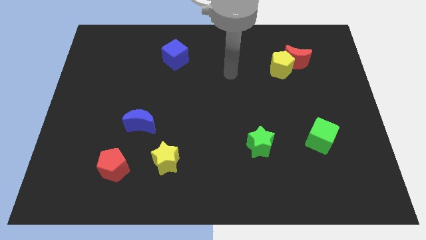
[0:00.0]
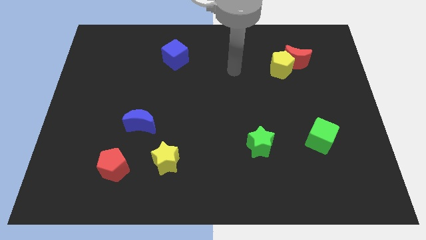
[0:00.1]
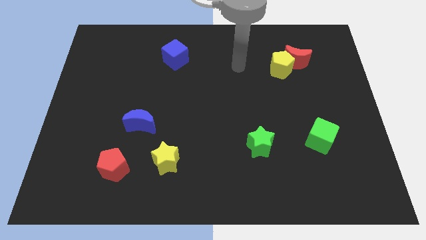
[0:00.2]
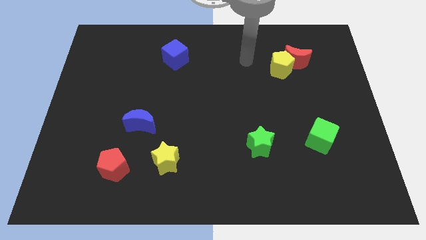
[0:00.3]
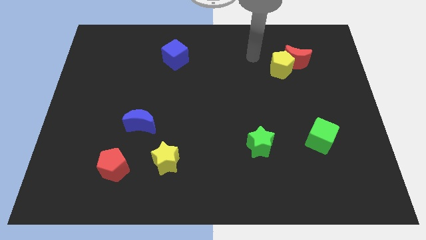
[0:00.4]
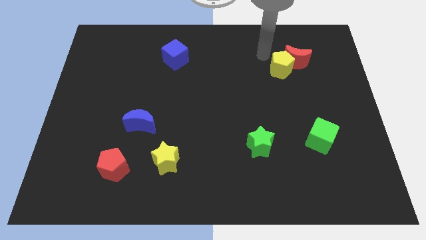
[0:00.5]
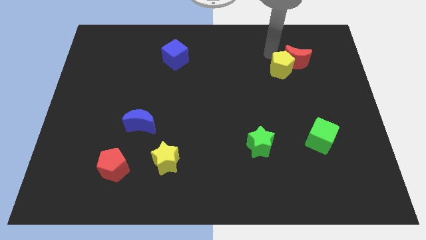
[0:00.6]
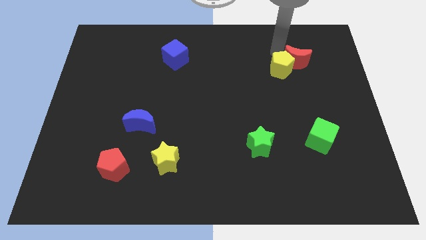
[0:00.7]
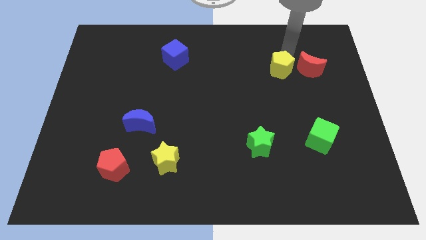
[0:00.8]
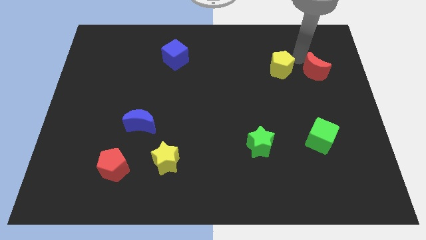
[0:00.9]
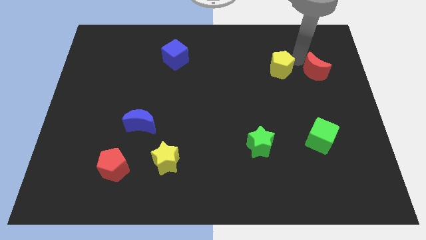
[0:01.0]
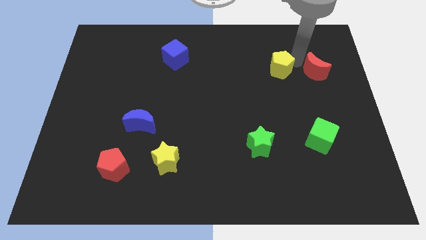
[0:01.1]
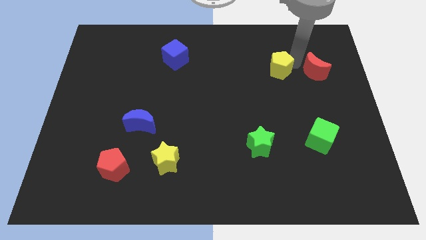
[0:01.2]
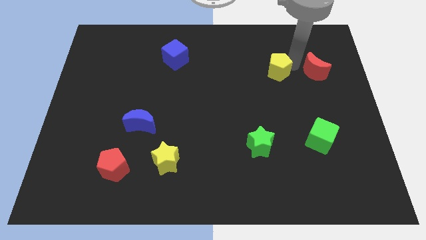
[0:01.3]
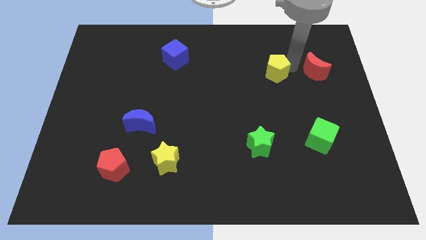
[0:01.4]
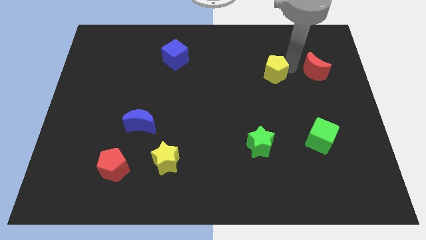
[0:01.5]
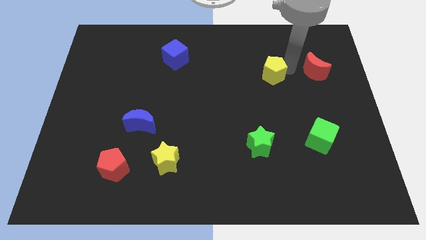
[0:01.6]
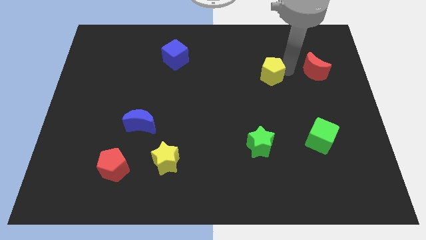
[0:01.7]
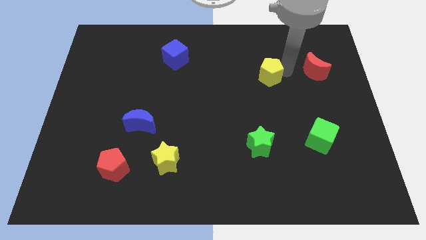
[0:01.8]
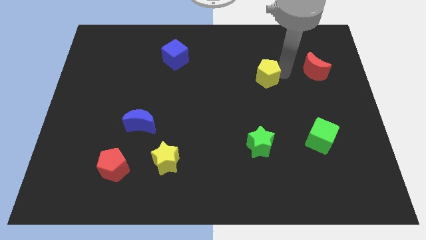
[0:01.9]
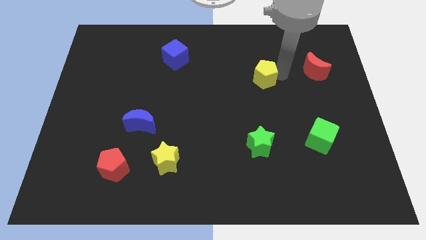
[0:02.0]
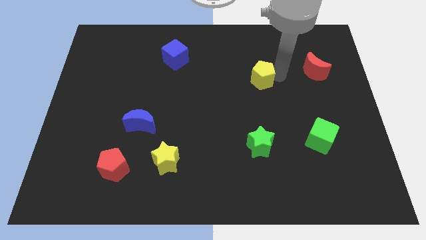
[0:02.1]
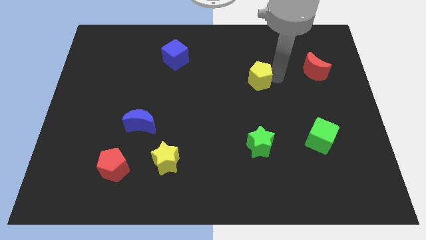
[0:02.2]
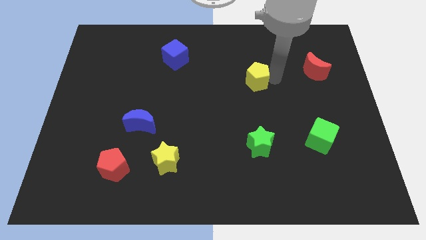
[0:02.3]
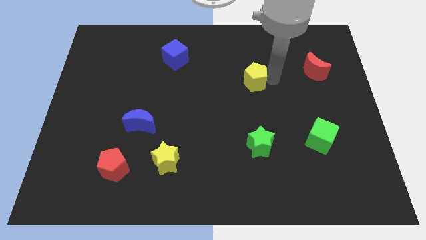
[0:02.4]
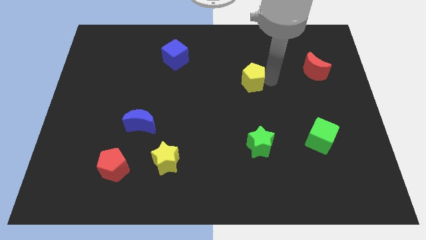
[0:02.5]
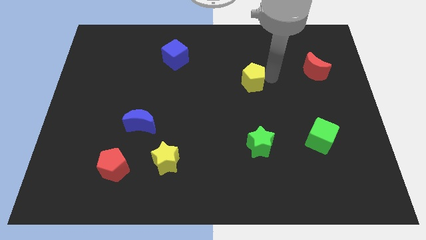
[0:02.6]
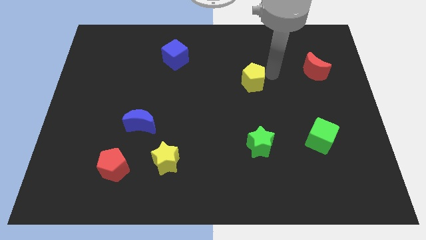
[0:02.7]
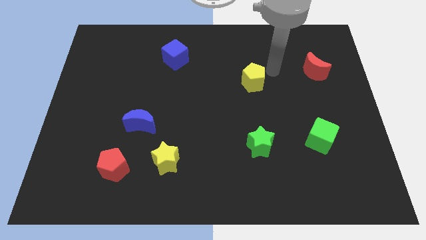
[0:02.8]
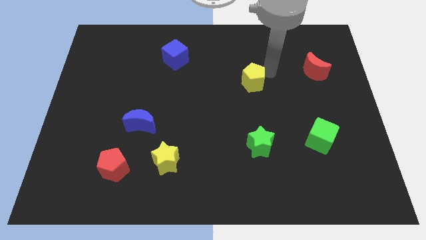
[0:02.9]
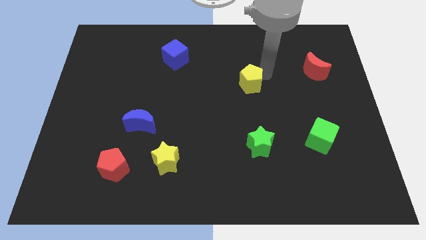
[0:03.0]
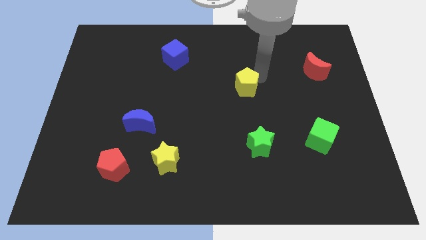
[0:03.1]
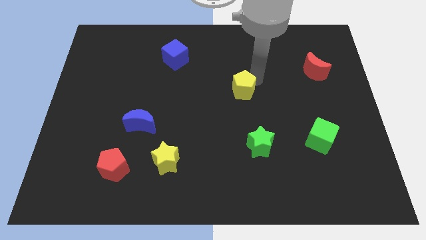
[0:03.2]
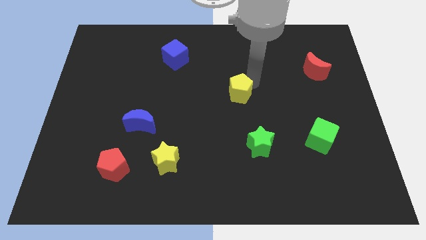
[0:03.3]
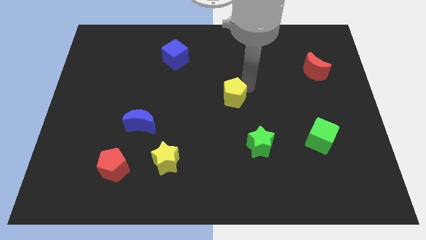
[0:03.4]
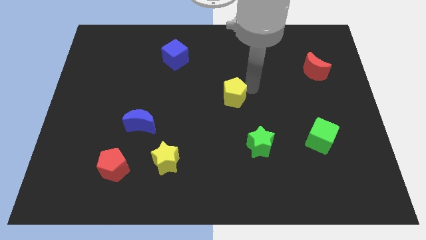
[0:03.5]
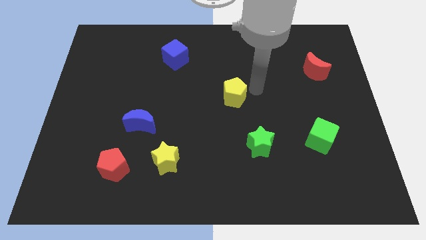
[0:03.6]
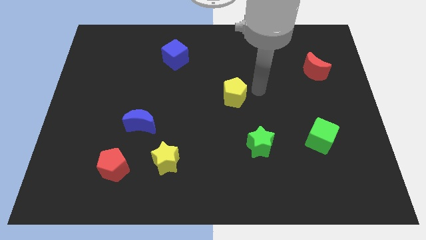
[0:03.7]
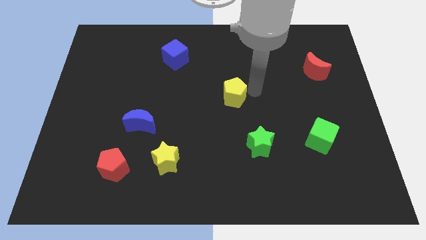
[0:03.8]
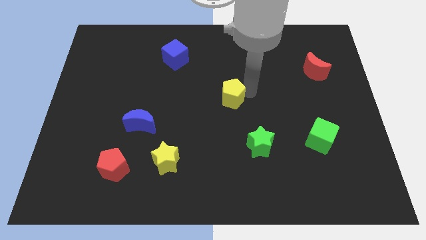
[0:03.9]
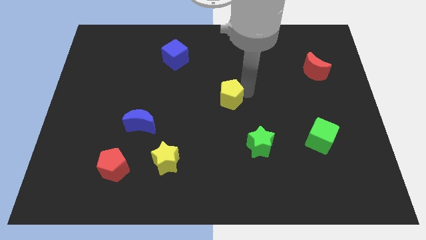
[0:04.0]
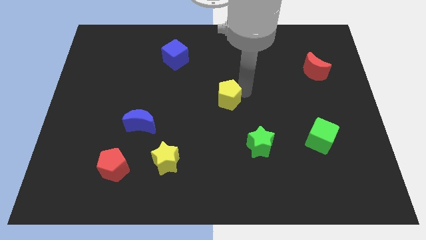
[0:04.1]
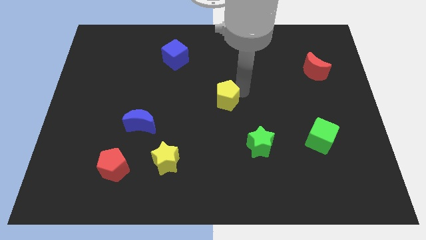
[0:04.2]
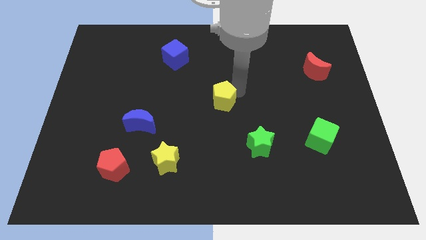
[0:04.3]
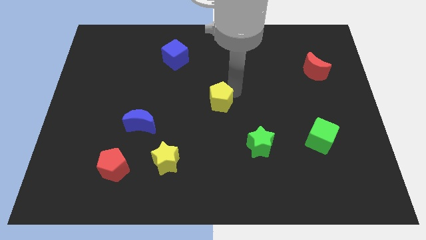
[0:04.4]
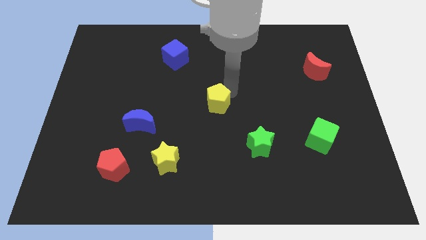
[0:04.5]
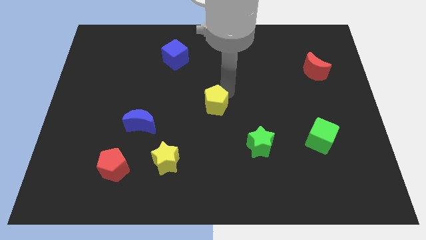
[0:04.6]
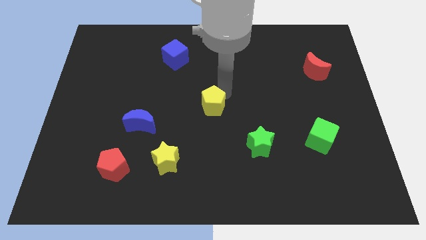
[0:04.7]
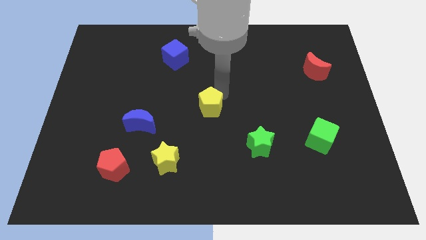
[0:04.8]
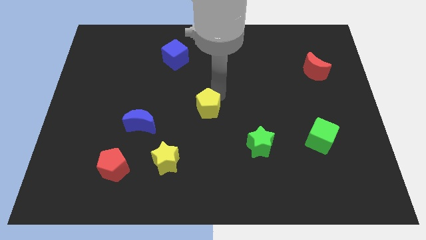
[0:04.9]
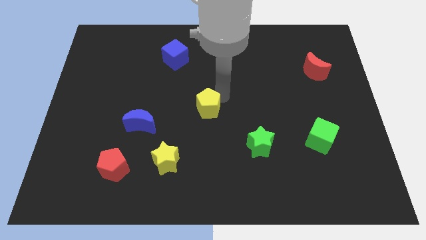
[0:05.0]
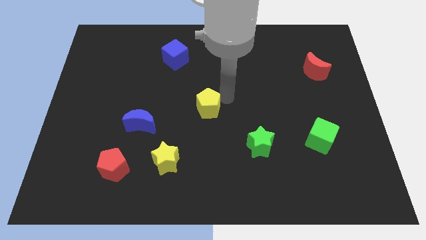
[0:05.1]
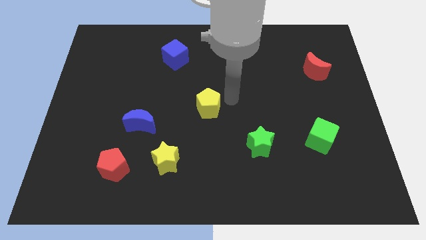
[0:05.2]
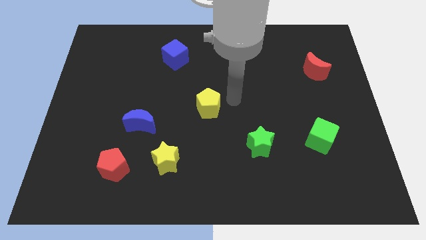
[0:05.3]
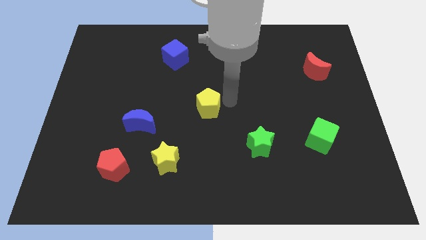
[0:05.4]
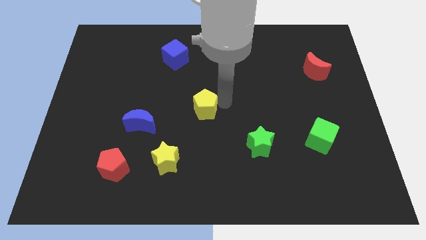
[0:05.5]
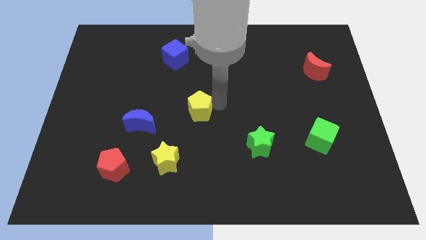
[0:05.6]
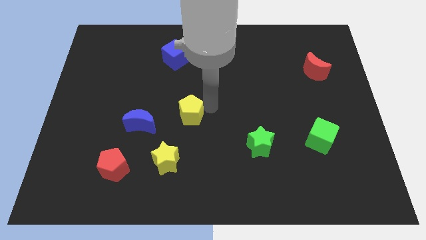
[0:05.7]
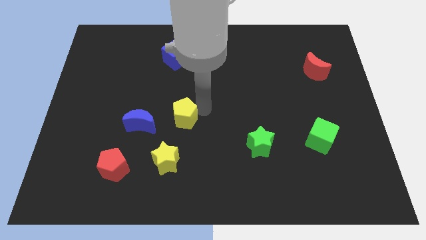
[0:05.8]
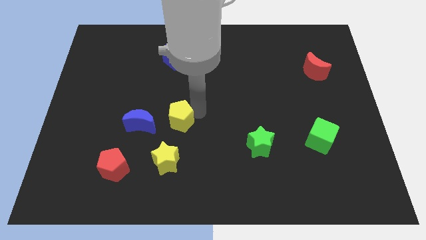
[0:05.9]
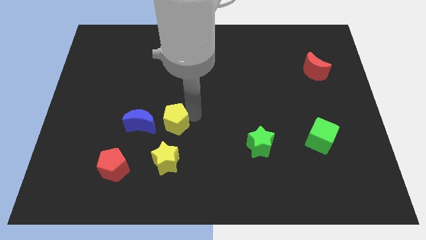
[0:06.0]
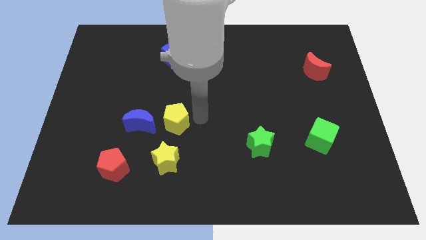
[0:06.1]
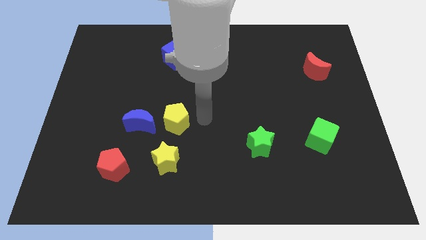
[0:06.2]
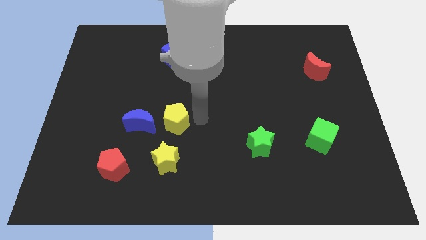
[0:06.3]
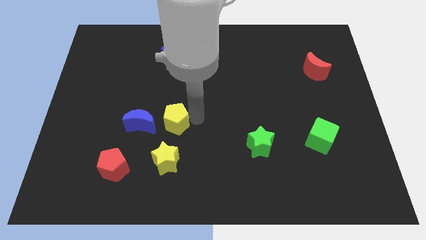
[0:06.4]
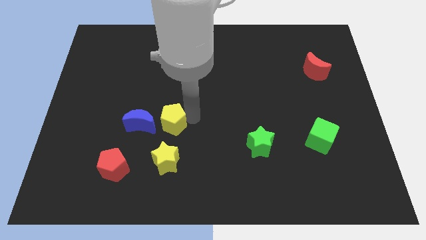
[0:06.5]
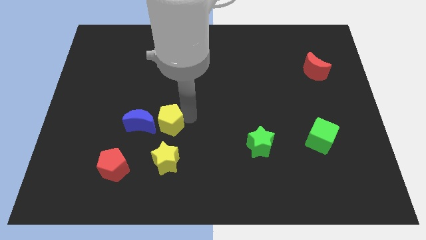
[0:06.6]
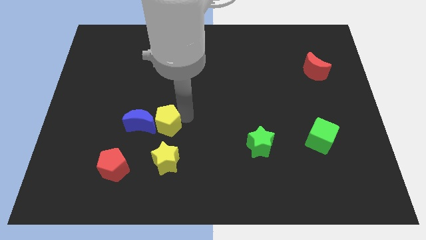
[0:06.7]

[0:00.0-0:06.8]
put the yellow pentagon next to the blue moon

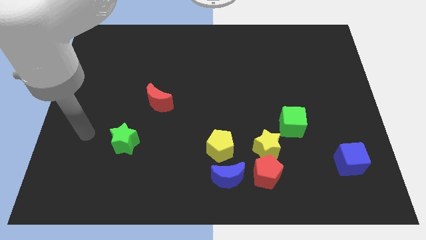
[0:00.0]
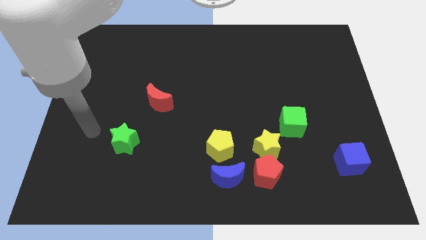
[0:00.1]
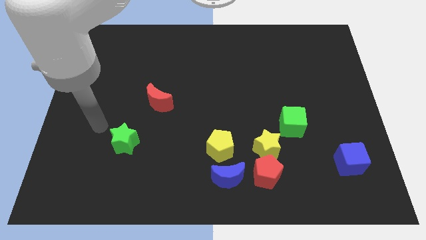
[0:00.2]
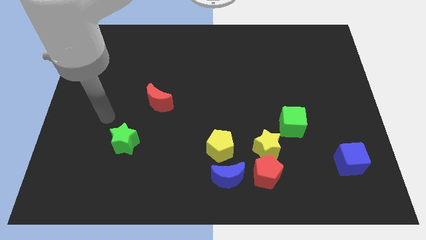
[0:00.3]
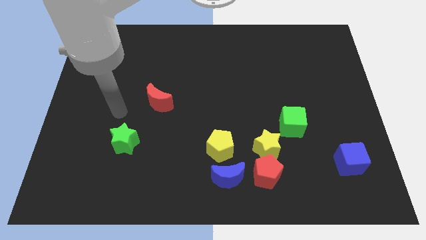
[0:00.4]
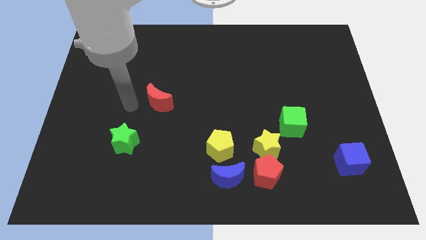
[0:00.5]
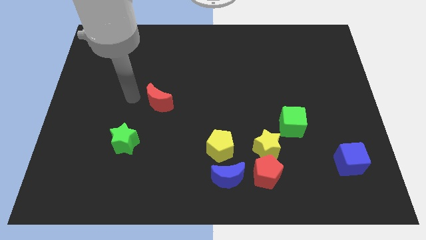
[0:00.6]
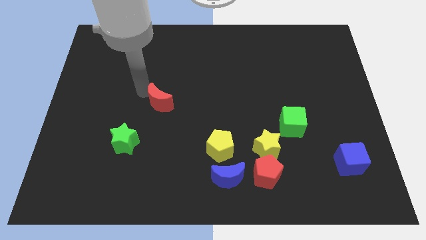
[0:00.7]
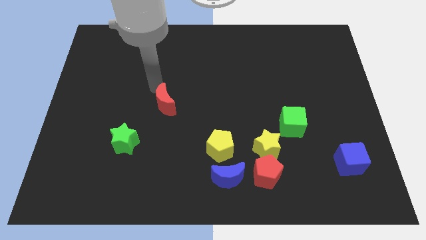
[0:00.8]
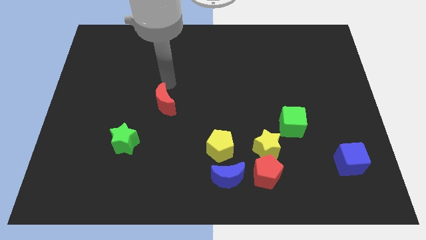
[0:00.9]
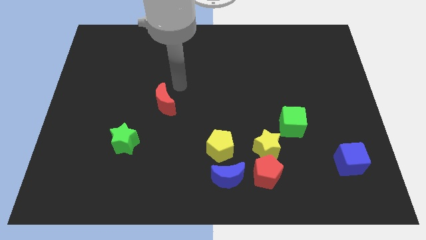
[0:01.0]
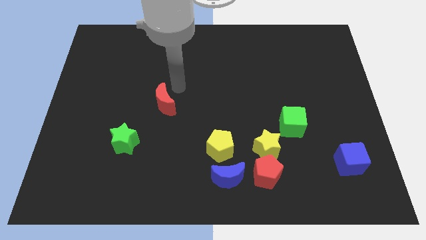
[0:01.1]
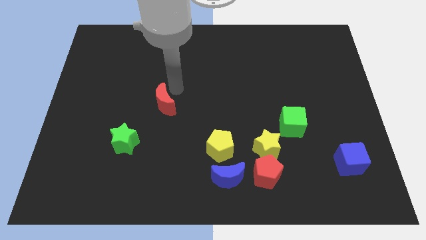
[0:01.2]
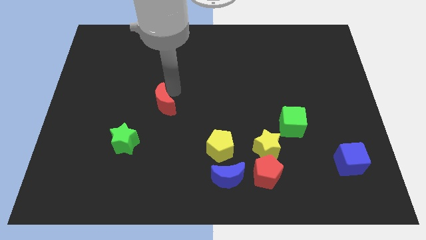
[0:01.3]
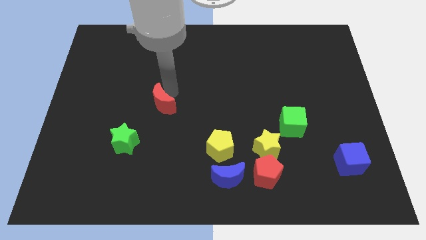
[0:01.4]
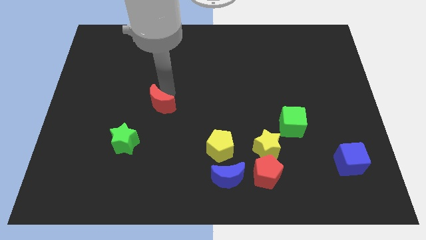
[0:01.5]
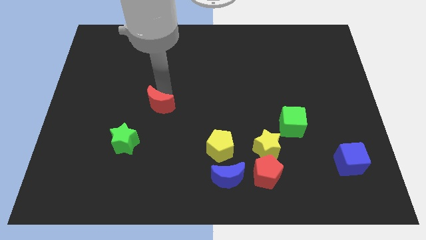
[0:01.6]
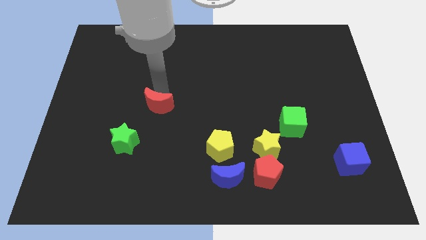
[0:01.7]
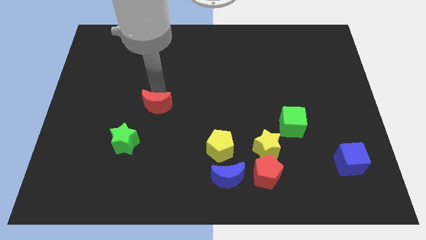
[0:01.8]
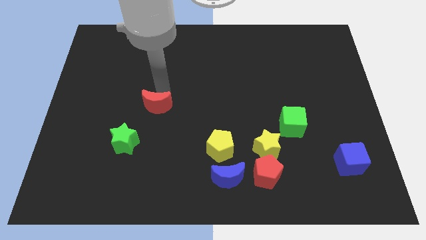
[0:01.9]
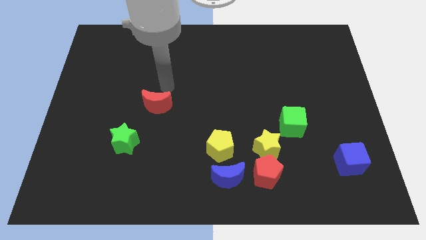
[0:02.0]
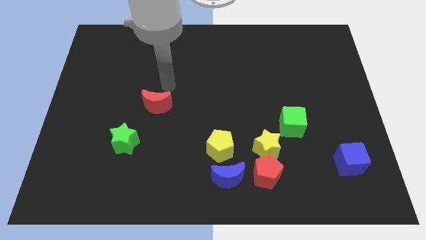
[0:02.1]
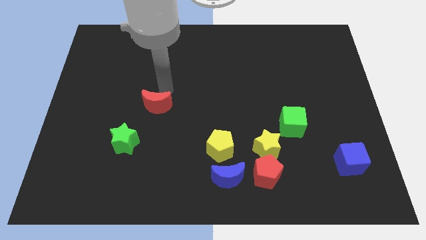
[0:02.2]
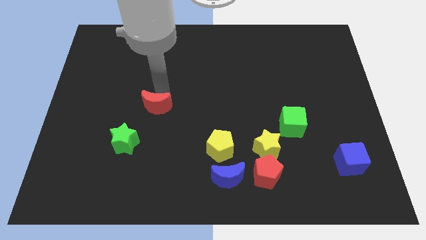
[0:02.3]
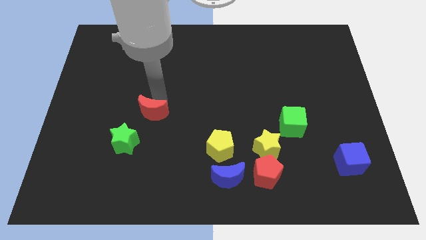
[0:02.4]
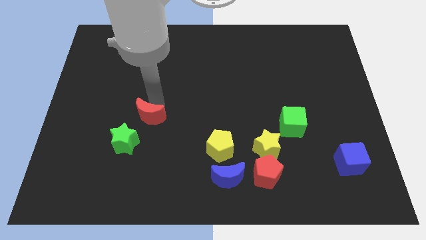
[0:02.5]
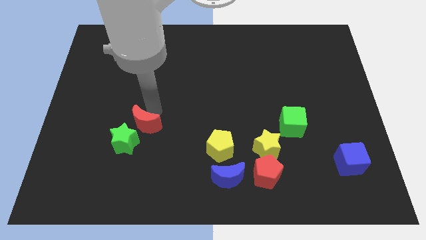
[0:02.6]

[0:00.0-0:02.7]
slide the red moon to the green star
